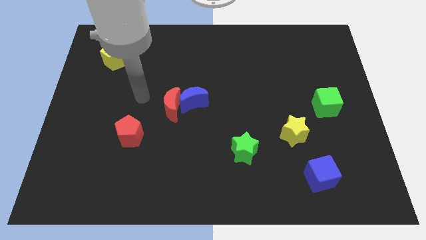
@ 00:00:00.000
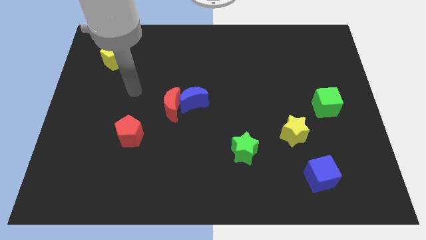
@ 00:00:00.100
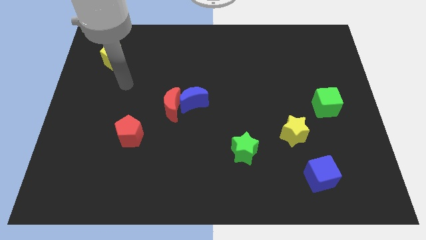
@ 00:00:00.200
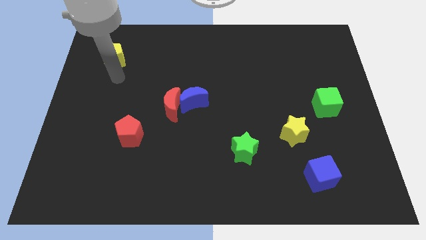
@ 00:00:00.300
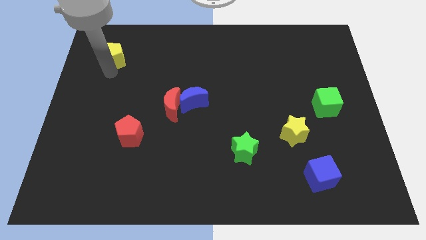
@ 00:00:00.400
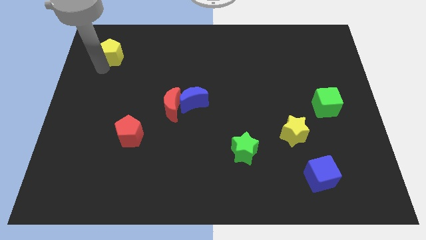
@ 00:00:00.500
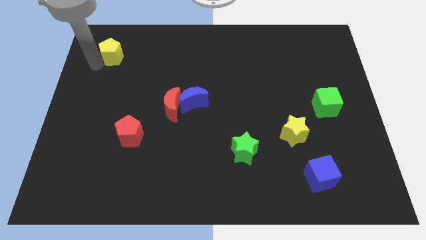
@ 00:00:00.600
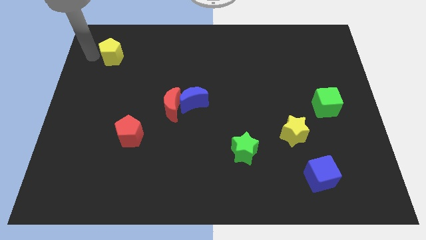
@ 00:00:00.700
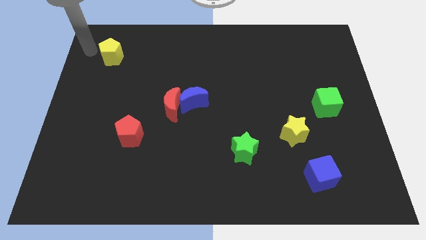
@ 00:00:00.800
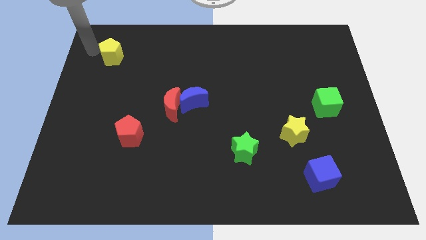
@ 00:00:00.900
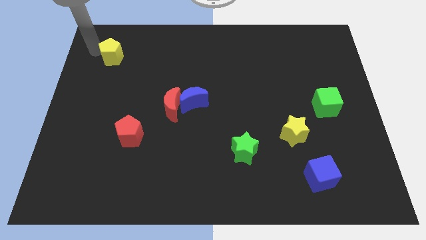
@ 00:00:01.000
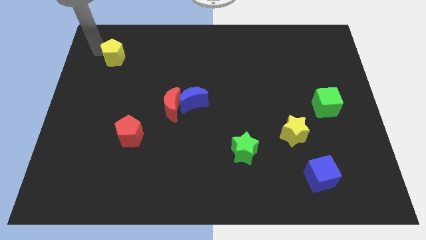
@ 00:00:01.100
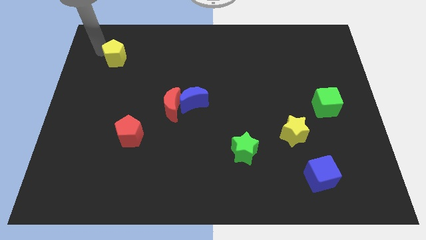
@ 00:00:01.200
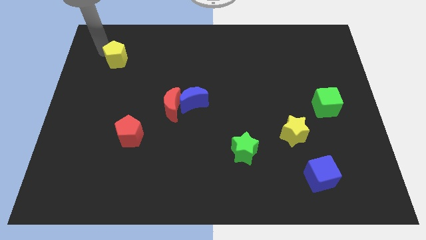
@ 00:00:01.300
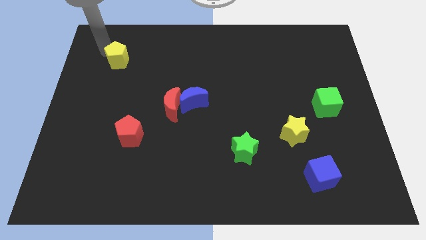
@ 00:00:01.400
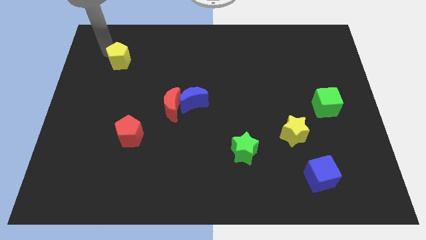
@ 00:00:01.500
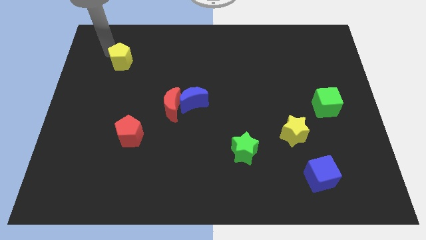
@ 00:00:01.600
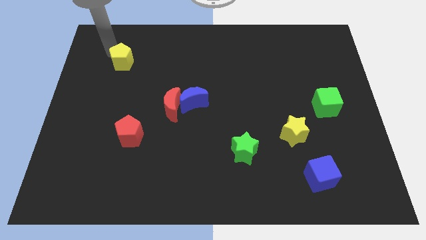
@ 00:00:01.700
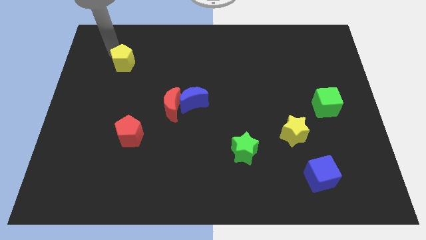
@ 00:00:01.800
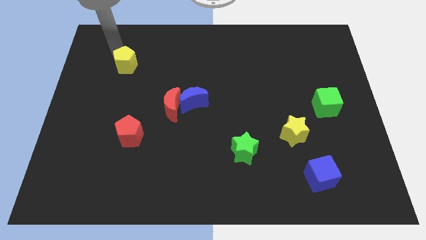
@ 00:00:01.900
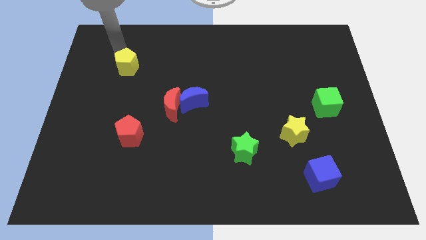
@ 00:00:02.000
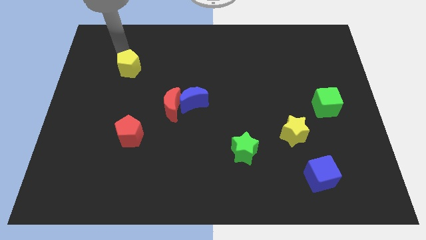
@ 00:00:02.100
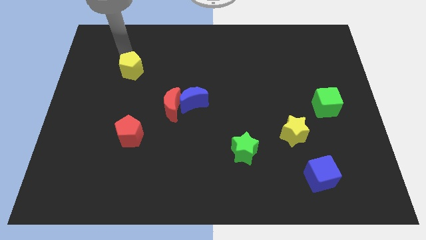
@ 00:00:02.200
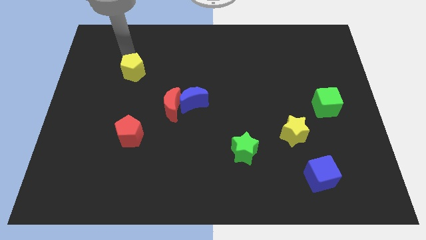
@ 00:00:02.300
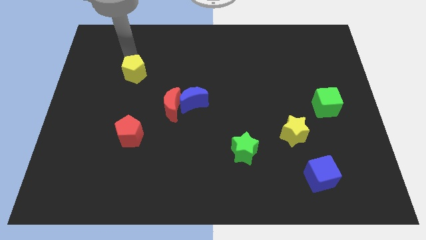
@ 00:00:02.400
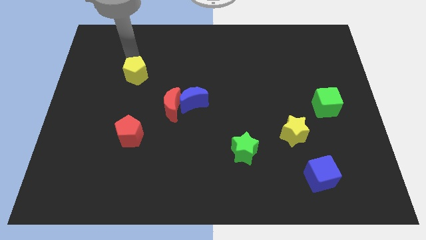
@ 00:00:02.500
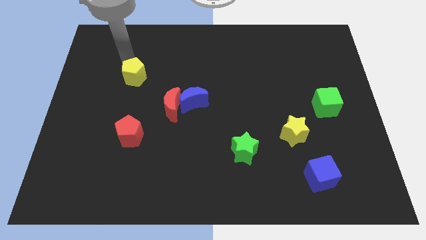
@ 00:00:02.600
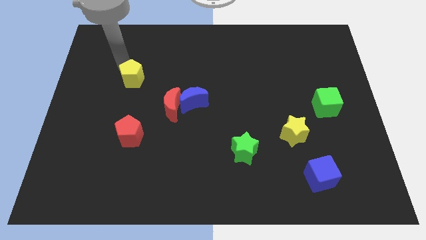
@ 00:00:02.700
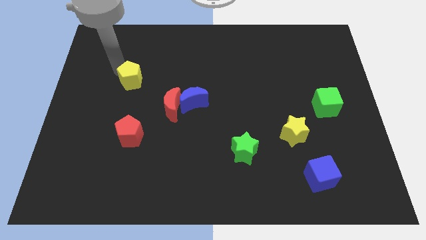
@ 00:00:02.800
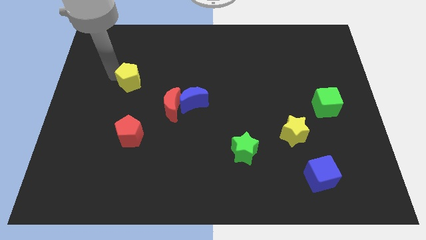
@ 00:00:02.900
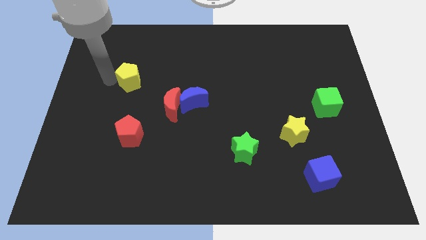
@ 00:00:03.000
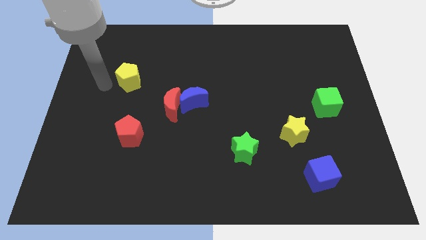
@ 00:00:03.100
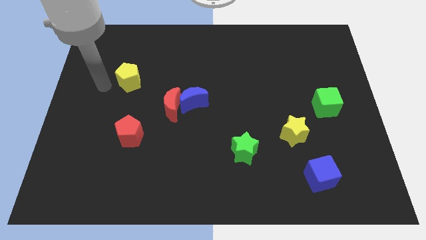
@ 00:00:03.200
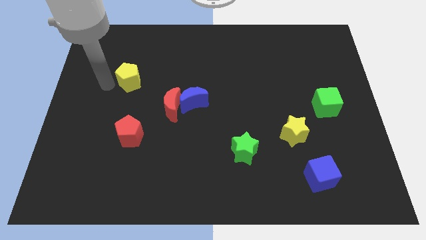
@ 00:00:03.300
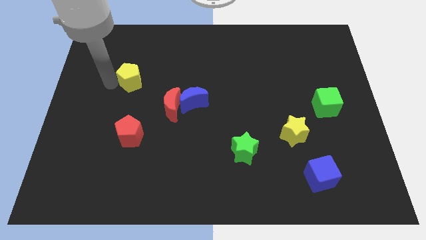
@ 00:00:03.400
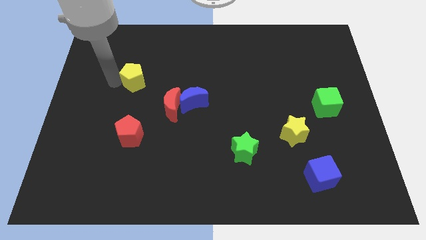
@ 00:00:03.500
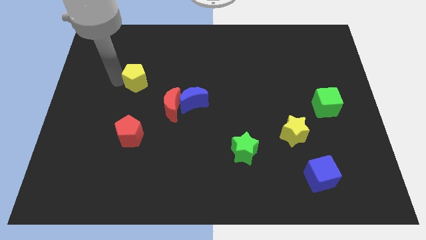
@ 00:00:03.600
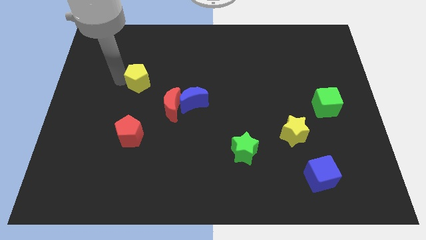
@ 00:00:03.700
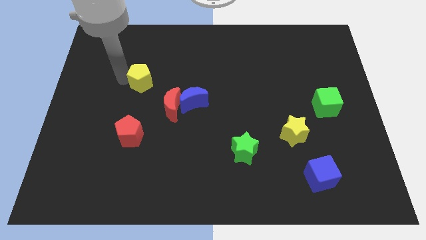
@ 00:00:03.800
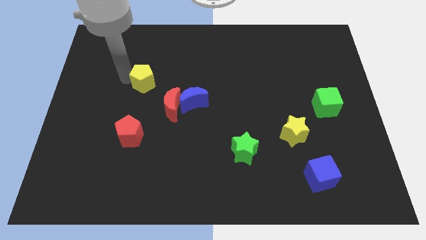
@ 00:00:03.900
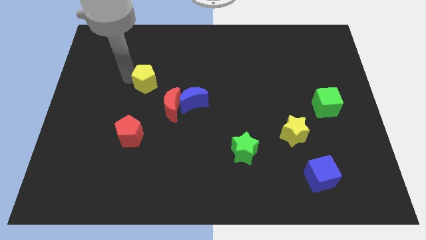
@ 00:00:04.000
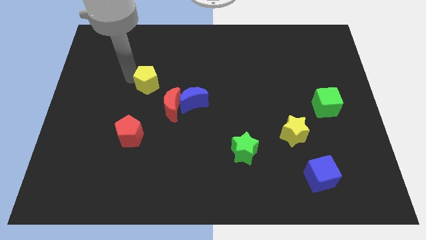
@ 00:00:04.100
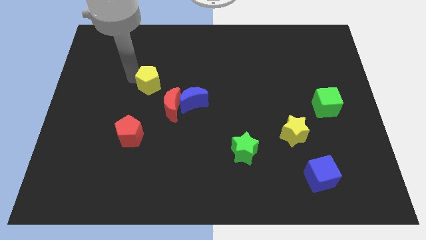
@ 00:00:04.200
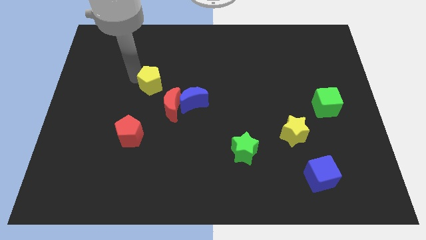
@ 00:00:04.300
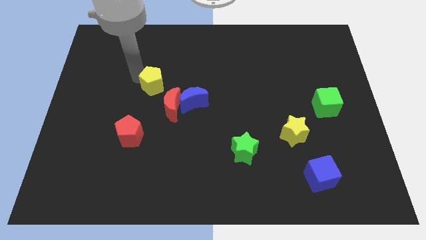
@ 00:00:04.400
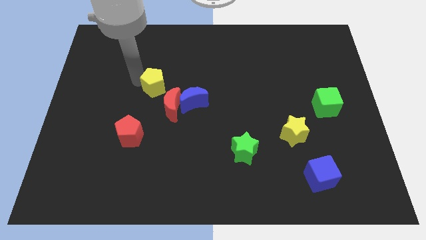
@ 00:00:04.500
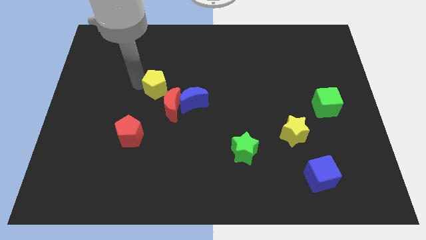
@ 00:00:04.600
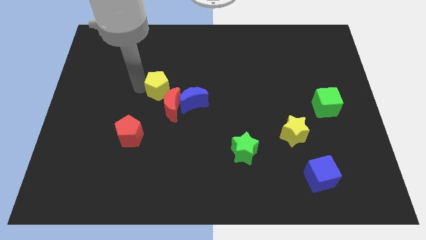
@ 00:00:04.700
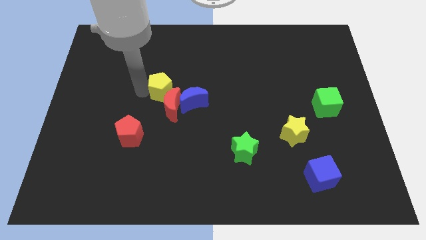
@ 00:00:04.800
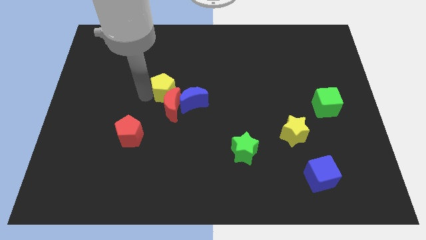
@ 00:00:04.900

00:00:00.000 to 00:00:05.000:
put the yellow pentagon to the center of the board

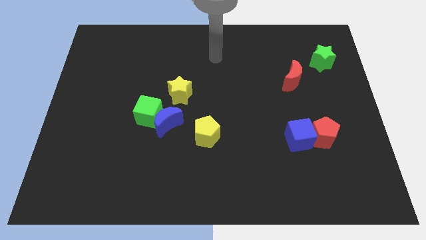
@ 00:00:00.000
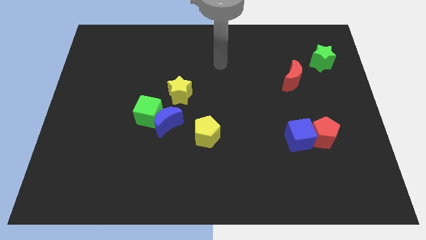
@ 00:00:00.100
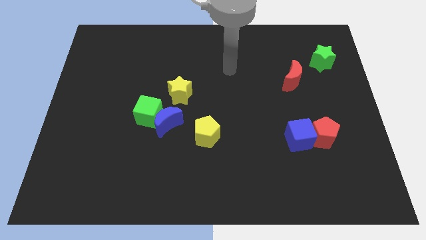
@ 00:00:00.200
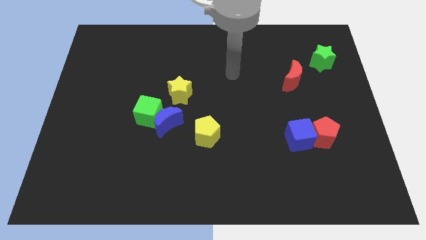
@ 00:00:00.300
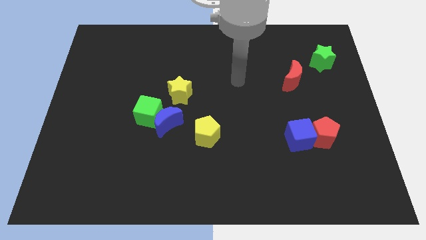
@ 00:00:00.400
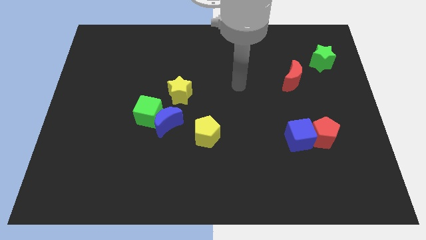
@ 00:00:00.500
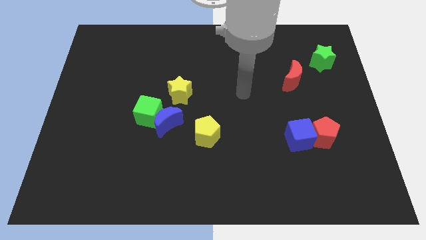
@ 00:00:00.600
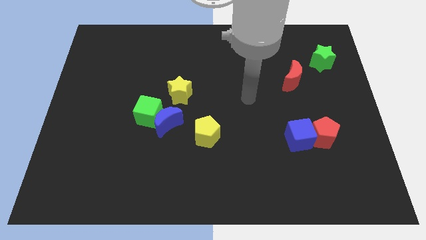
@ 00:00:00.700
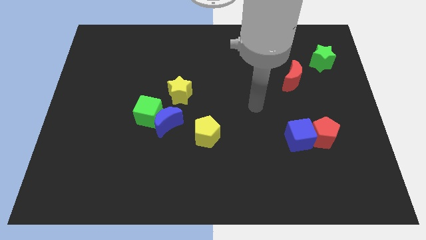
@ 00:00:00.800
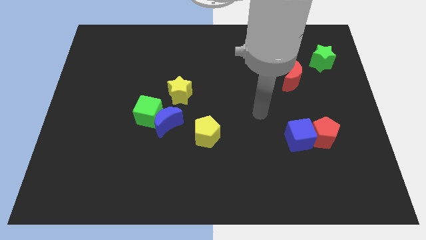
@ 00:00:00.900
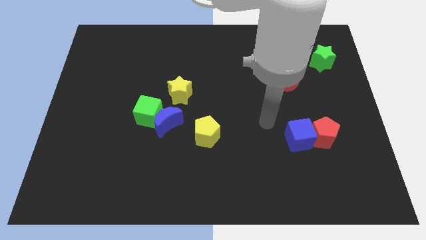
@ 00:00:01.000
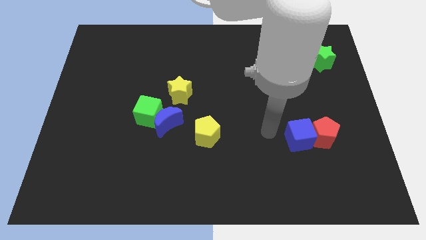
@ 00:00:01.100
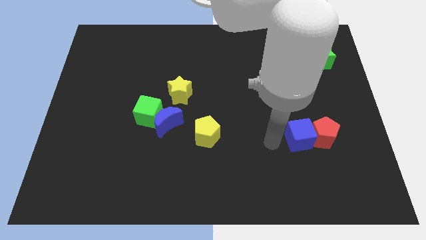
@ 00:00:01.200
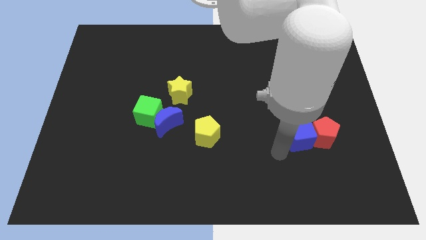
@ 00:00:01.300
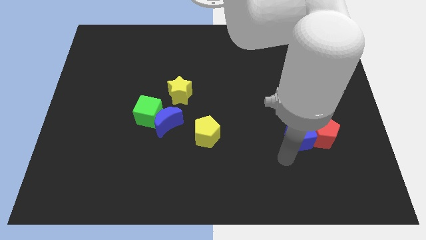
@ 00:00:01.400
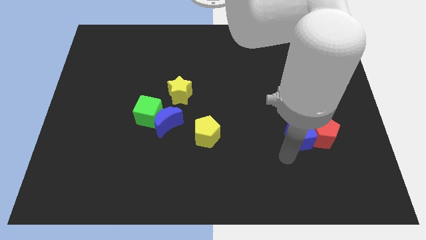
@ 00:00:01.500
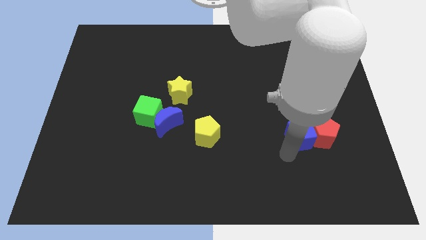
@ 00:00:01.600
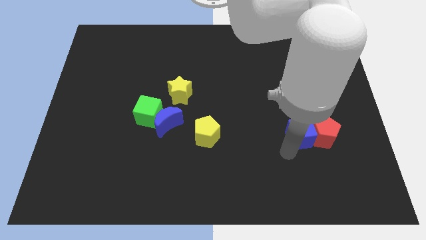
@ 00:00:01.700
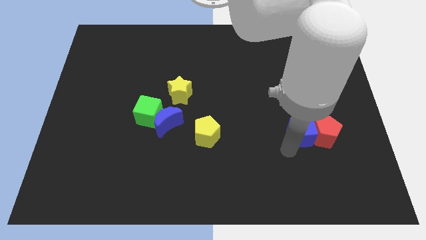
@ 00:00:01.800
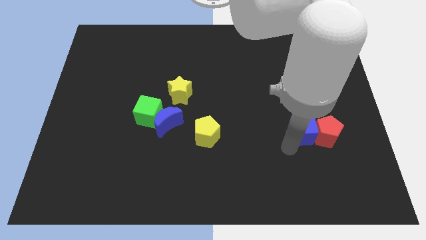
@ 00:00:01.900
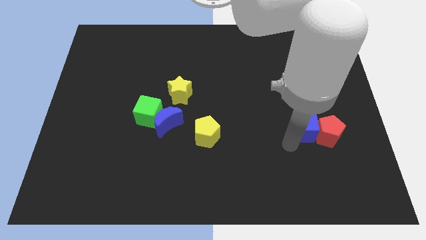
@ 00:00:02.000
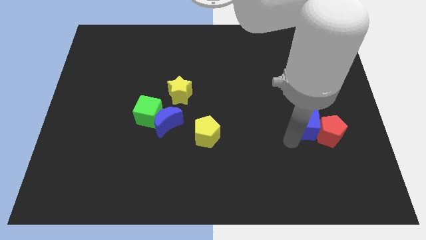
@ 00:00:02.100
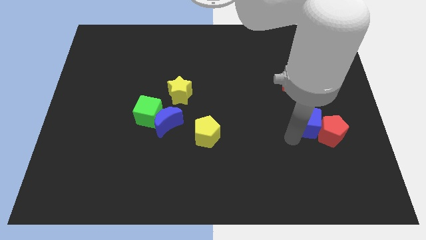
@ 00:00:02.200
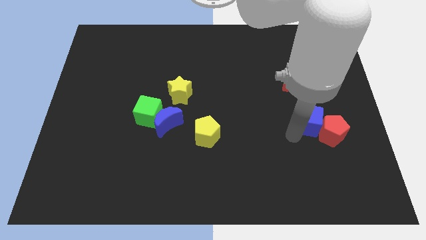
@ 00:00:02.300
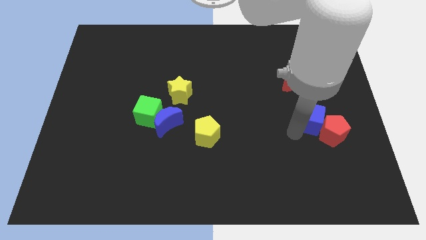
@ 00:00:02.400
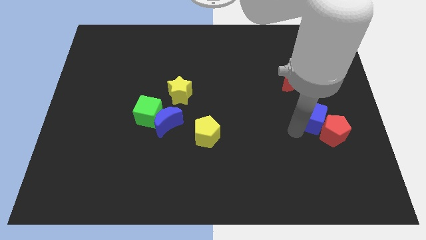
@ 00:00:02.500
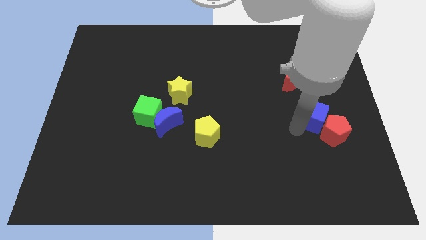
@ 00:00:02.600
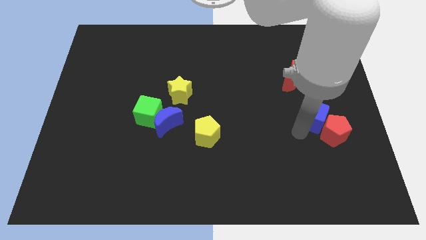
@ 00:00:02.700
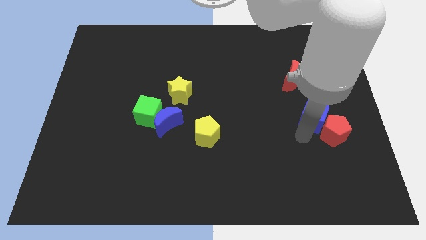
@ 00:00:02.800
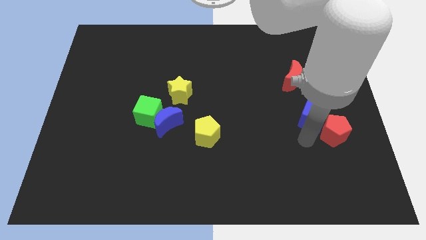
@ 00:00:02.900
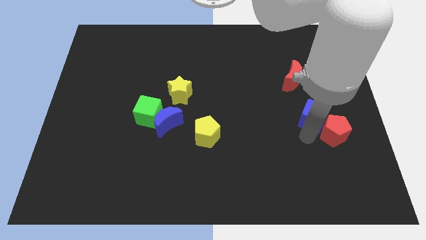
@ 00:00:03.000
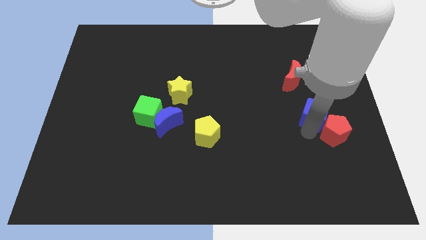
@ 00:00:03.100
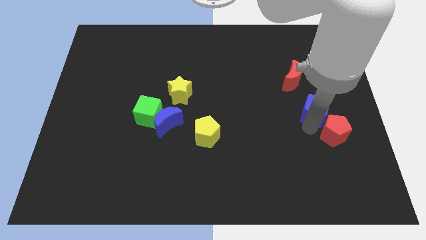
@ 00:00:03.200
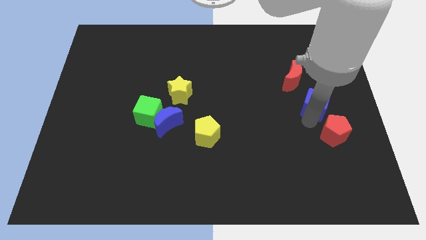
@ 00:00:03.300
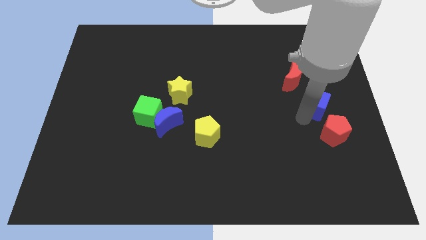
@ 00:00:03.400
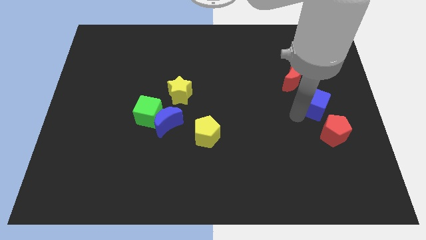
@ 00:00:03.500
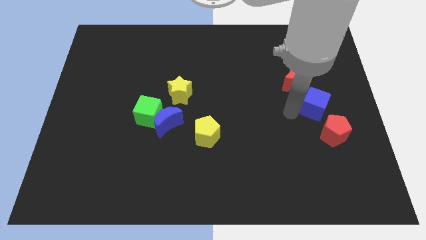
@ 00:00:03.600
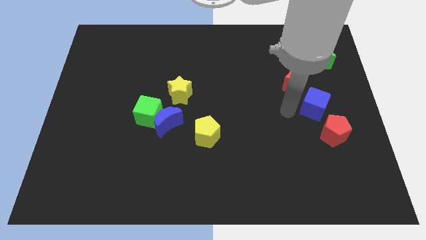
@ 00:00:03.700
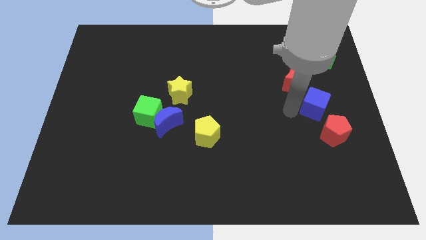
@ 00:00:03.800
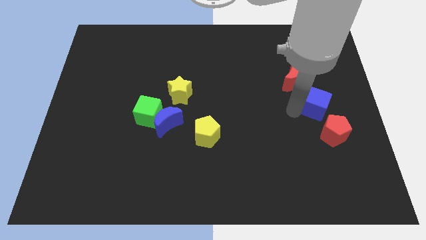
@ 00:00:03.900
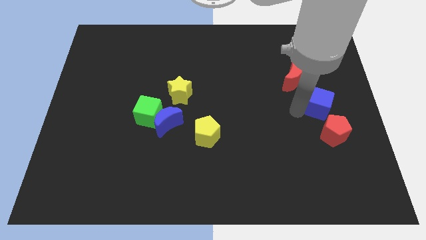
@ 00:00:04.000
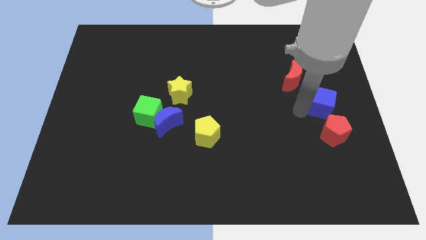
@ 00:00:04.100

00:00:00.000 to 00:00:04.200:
slide the blue cube to the right side of the board
